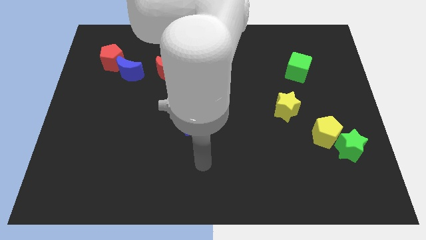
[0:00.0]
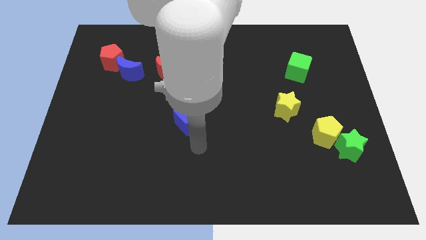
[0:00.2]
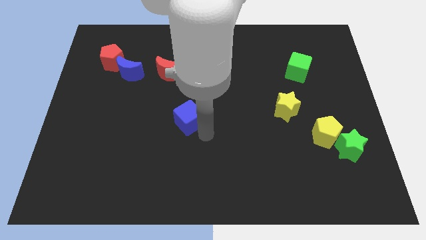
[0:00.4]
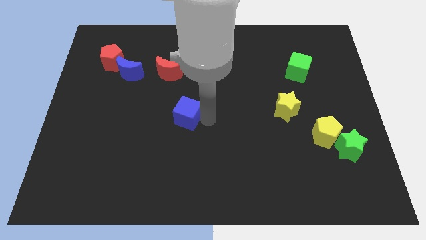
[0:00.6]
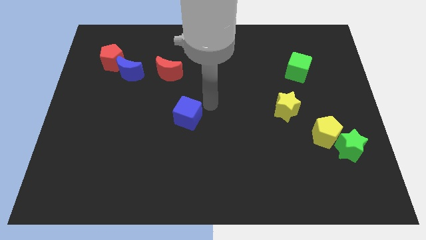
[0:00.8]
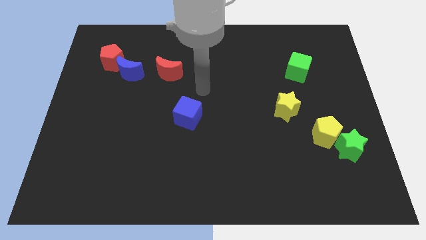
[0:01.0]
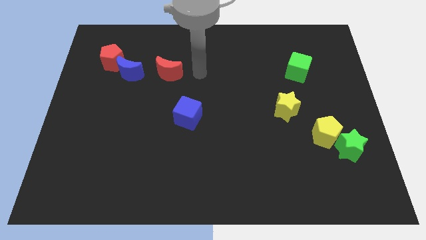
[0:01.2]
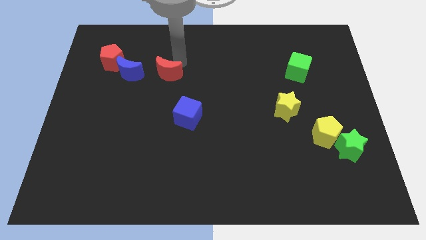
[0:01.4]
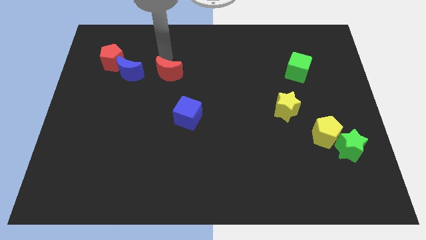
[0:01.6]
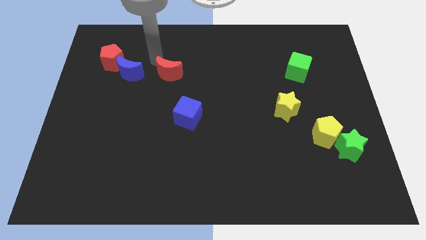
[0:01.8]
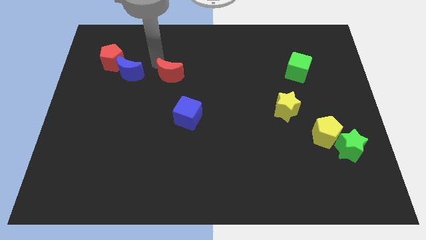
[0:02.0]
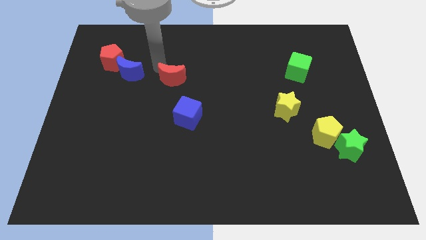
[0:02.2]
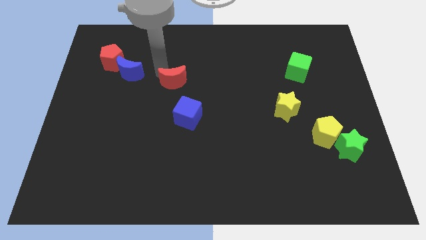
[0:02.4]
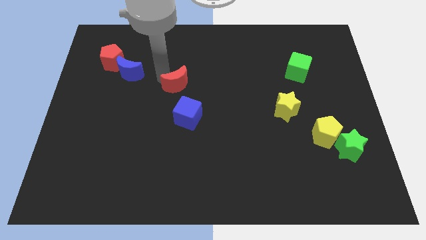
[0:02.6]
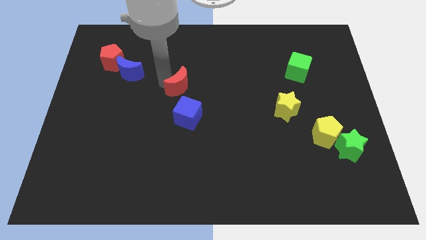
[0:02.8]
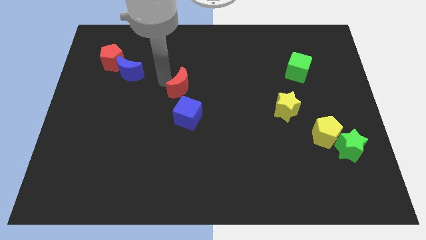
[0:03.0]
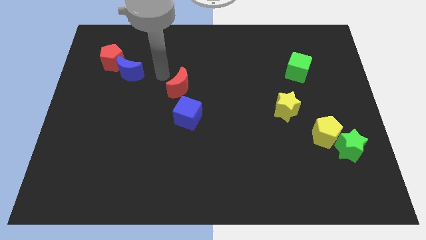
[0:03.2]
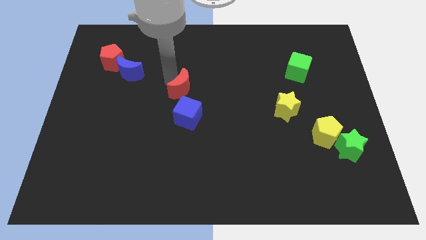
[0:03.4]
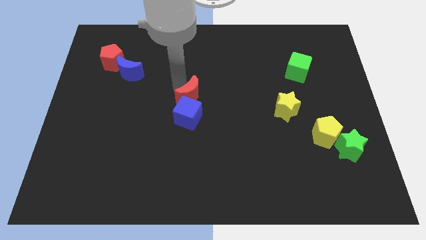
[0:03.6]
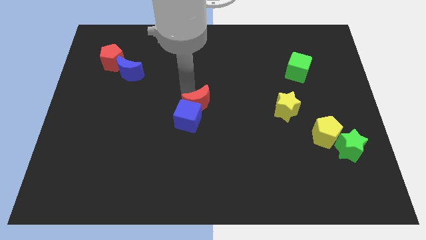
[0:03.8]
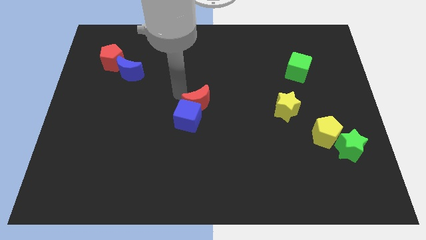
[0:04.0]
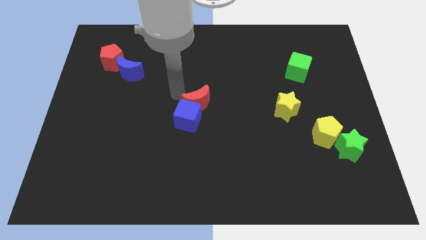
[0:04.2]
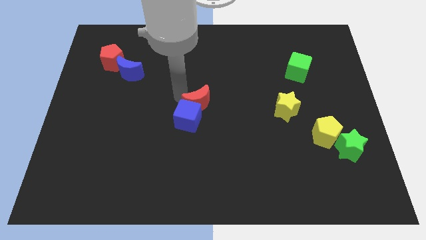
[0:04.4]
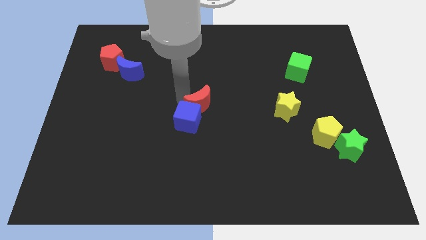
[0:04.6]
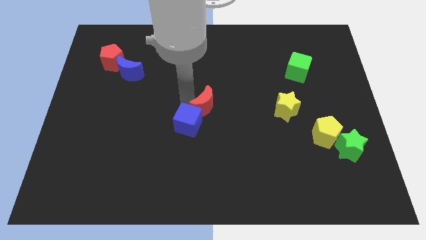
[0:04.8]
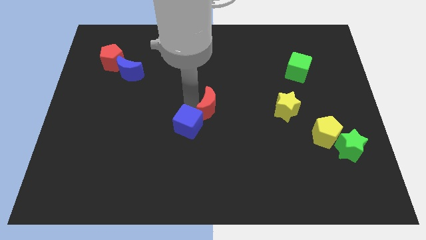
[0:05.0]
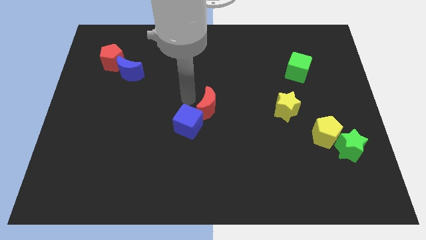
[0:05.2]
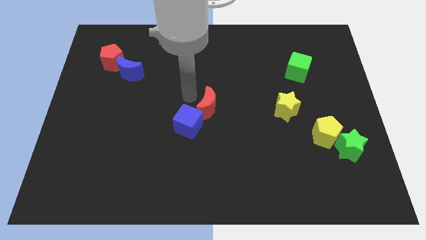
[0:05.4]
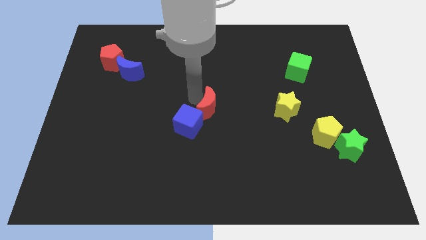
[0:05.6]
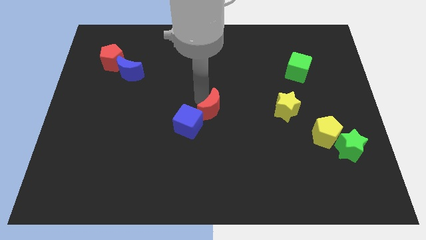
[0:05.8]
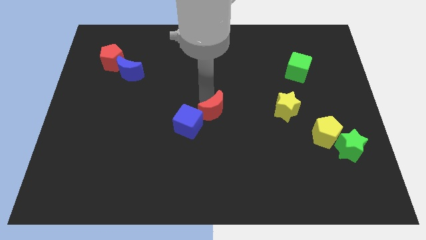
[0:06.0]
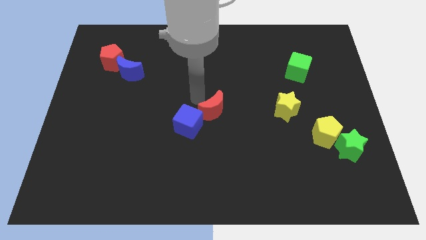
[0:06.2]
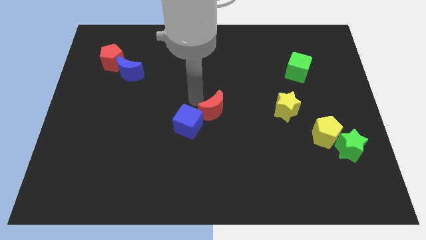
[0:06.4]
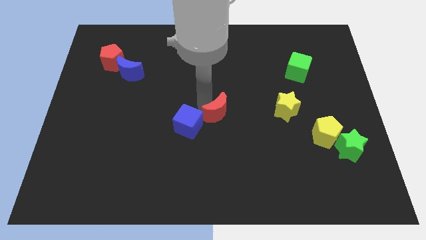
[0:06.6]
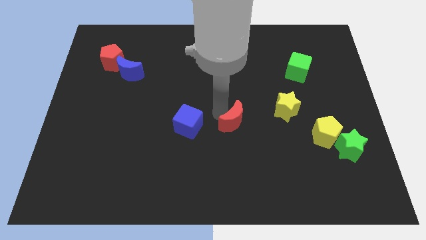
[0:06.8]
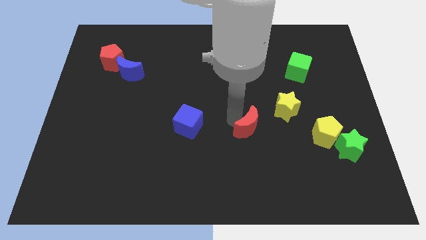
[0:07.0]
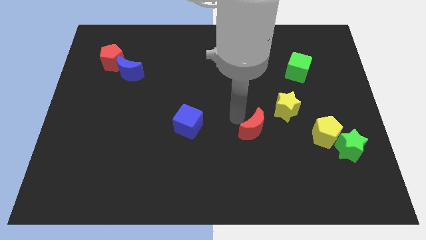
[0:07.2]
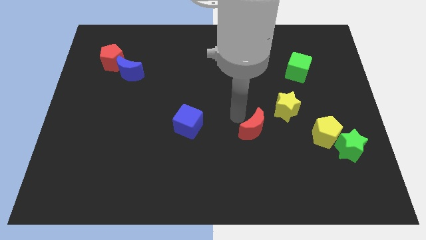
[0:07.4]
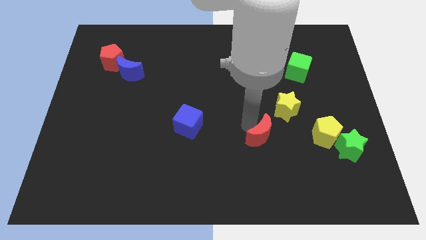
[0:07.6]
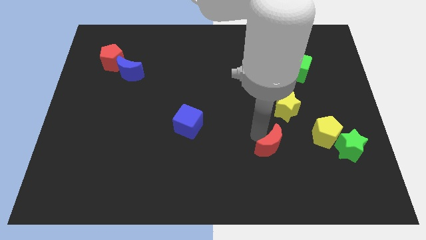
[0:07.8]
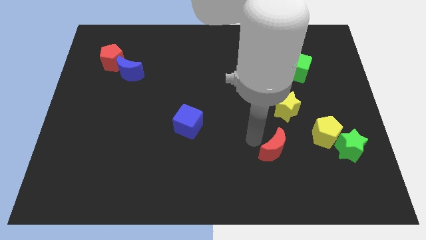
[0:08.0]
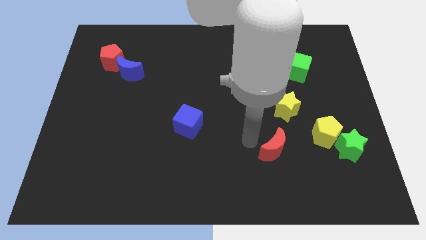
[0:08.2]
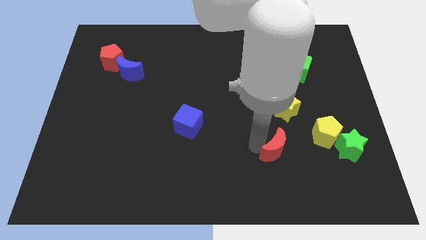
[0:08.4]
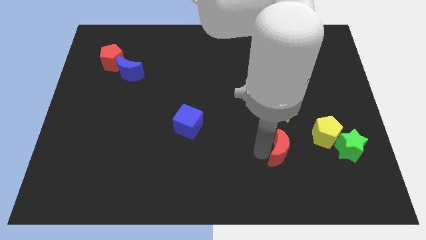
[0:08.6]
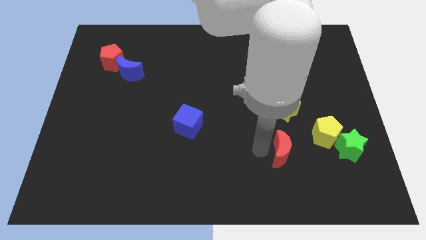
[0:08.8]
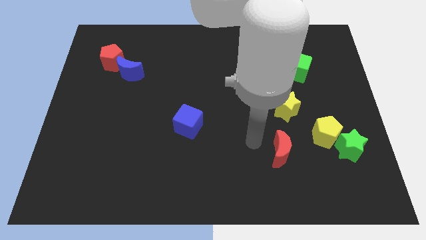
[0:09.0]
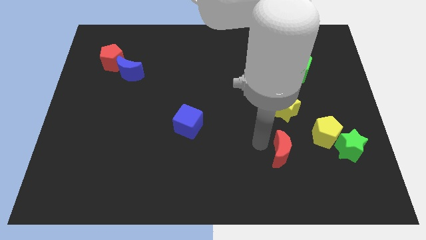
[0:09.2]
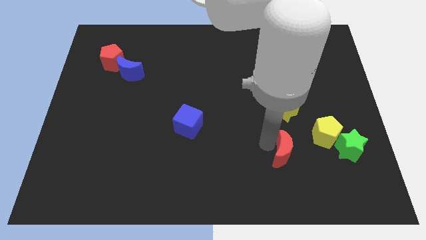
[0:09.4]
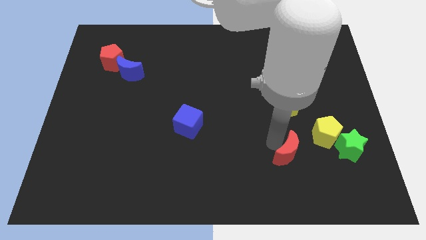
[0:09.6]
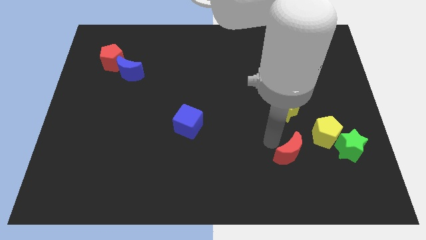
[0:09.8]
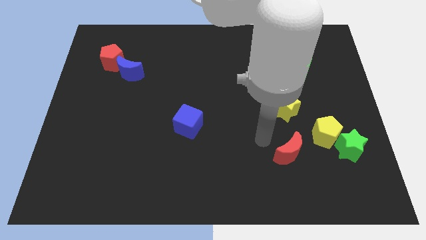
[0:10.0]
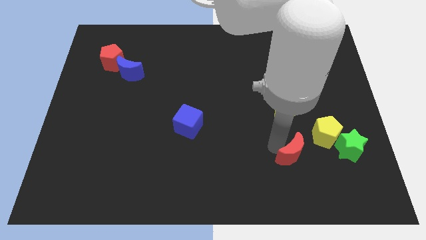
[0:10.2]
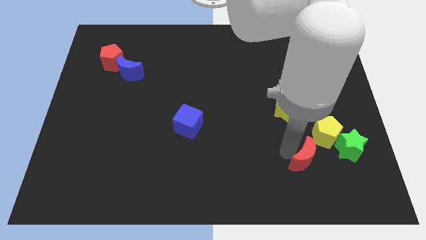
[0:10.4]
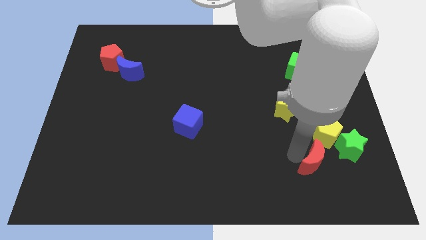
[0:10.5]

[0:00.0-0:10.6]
put the red moon to the bottom left of the green star

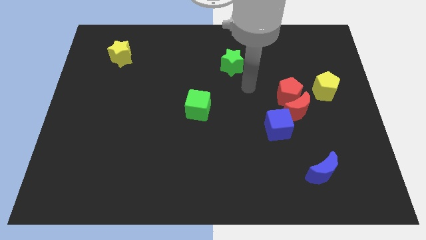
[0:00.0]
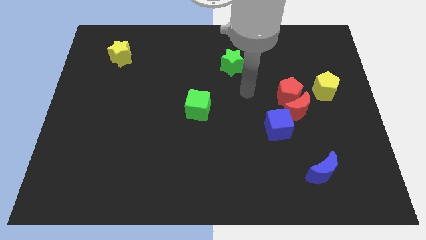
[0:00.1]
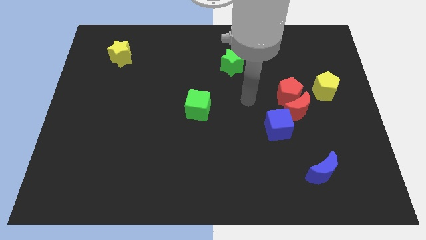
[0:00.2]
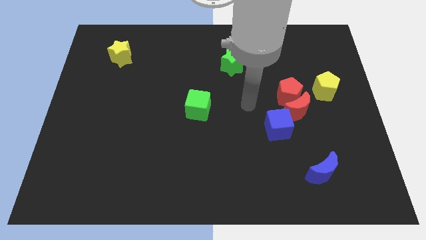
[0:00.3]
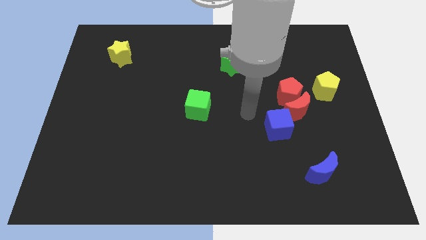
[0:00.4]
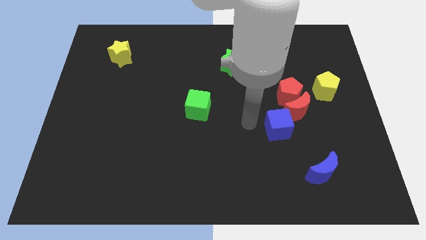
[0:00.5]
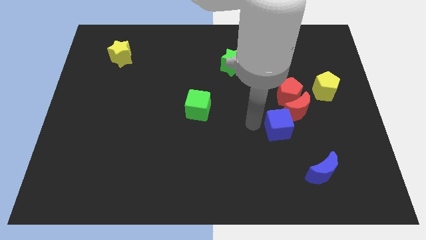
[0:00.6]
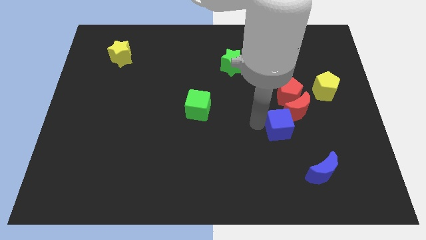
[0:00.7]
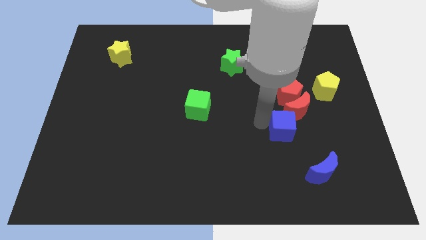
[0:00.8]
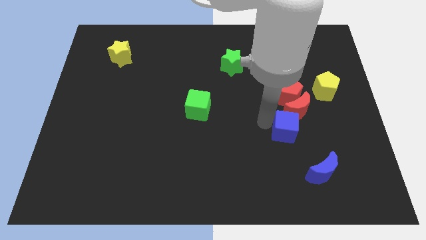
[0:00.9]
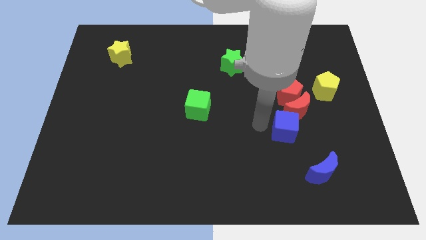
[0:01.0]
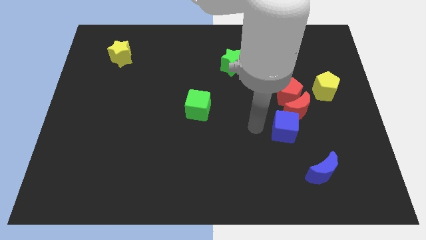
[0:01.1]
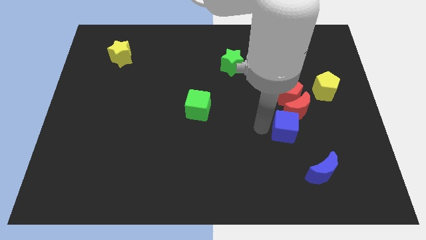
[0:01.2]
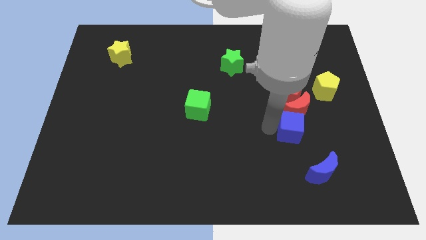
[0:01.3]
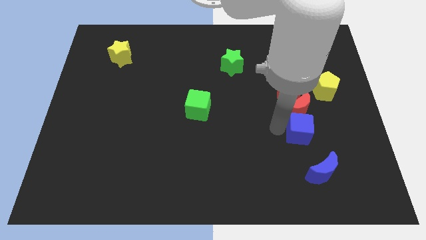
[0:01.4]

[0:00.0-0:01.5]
put the blue cube to the top of the blue moon
